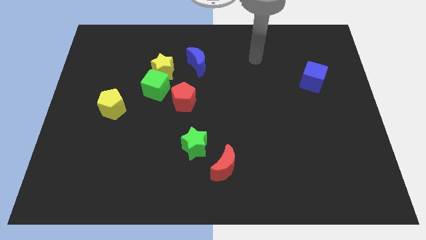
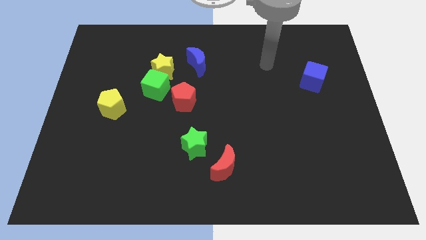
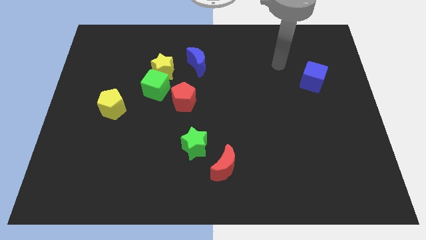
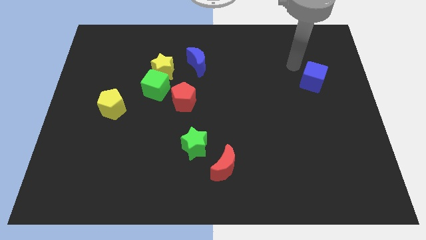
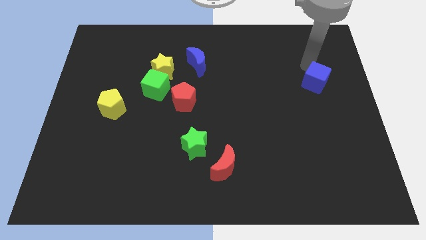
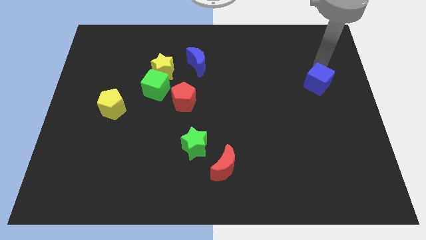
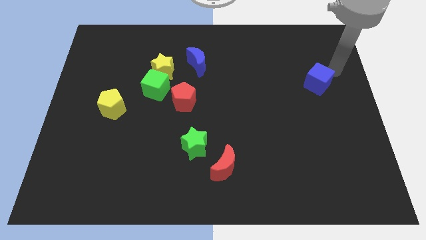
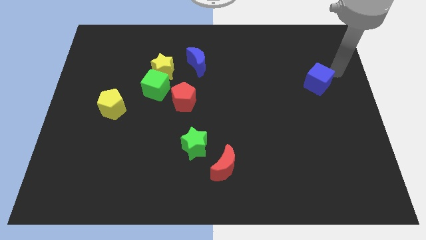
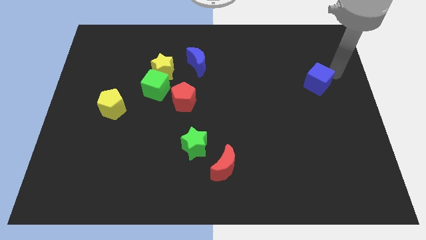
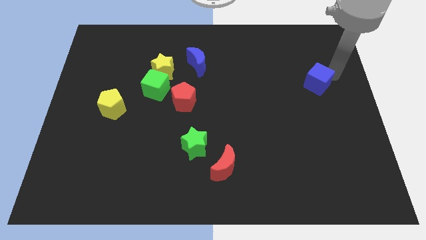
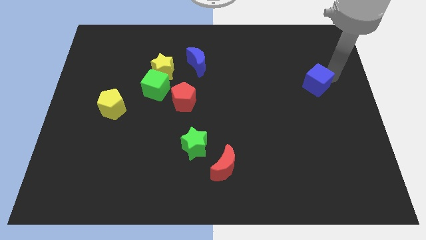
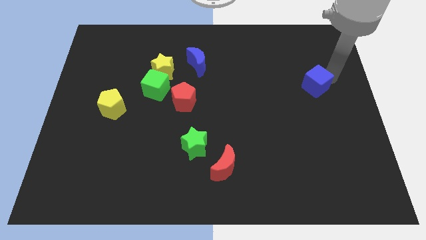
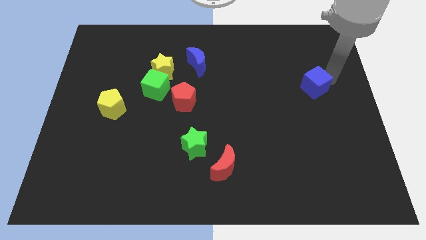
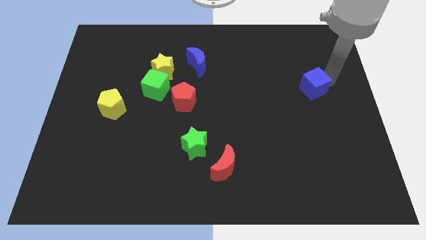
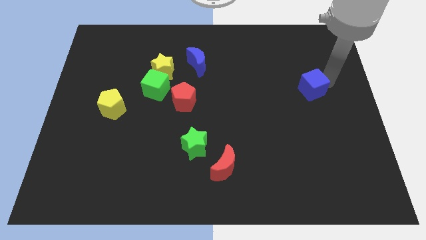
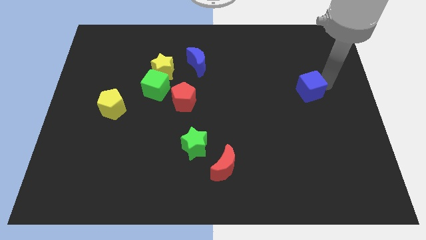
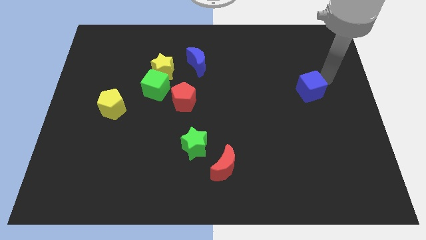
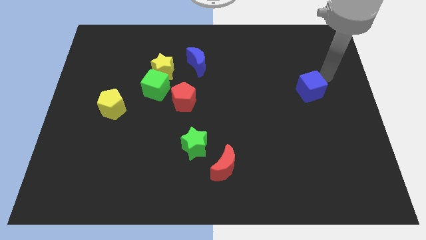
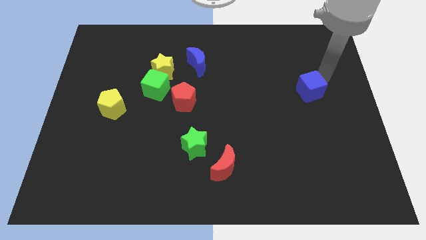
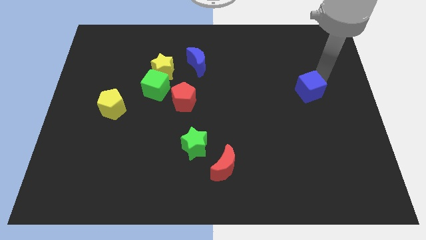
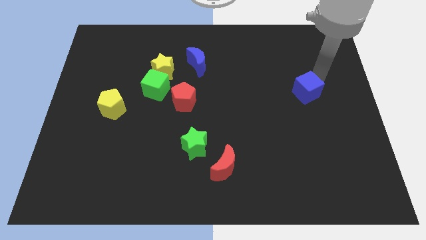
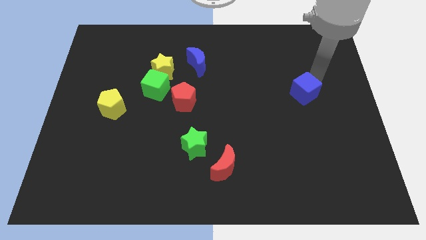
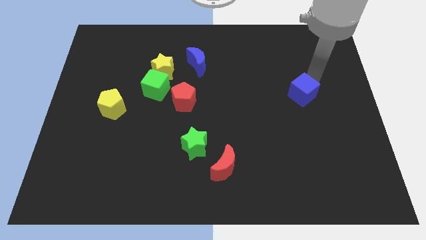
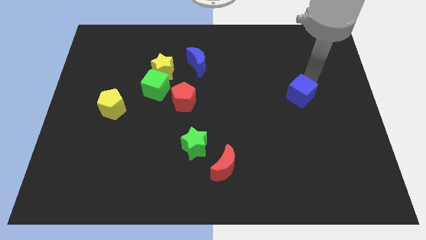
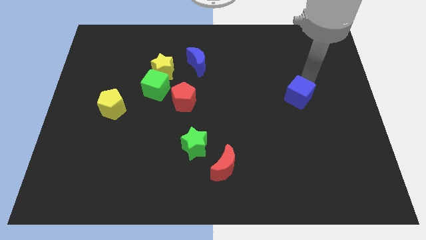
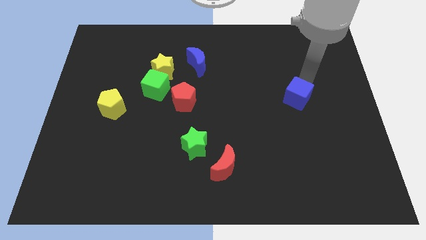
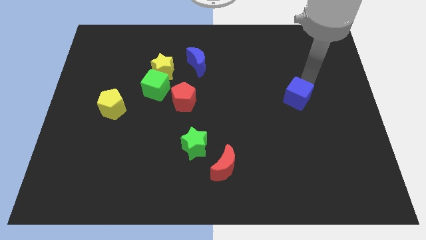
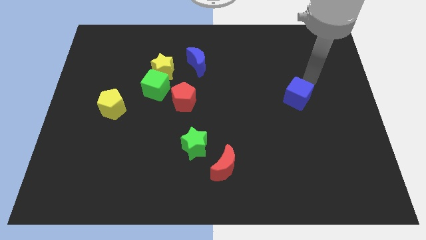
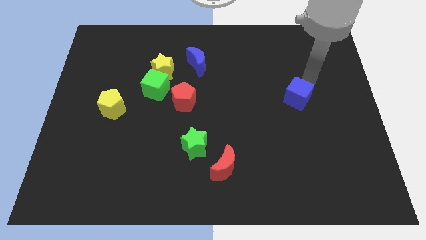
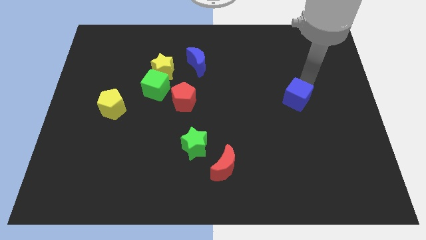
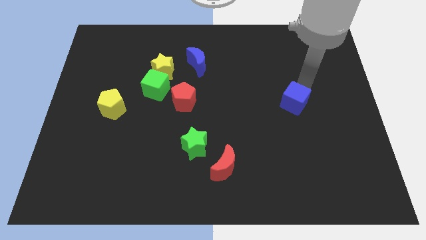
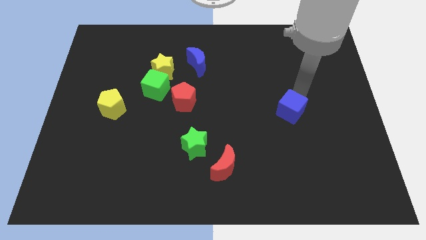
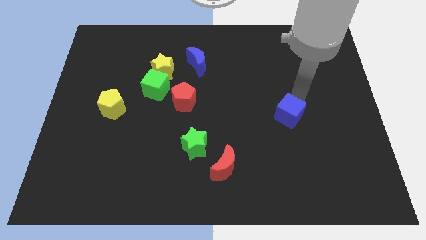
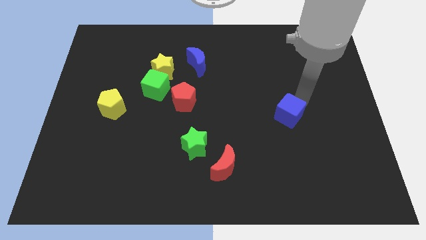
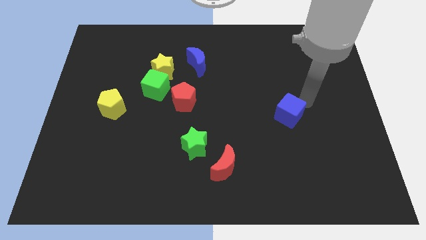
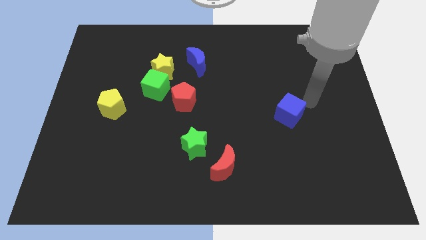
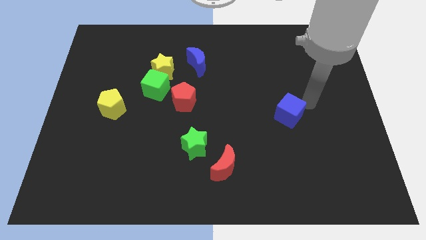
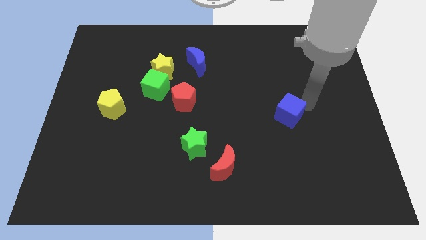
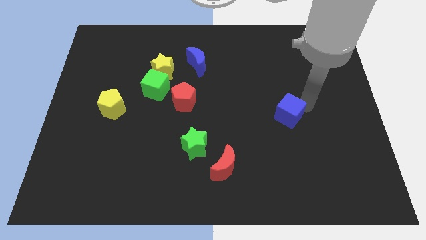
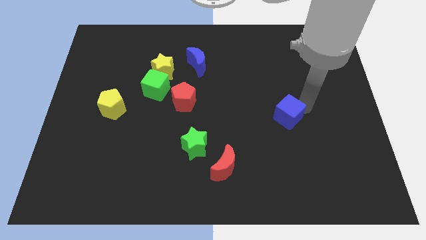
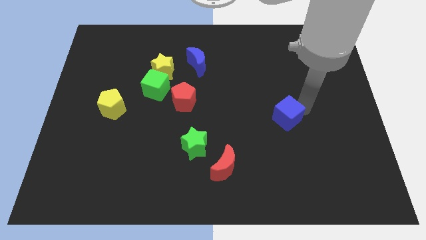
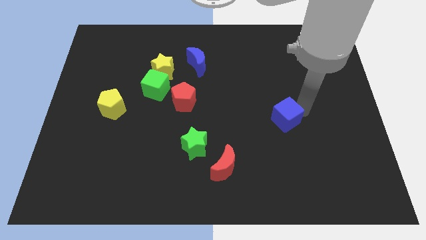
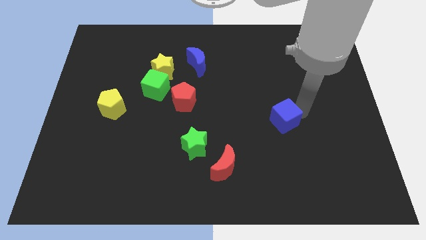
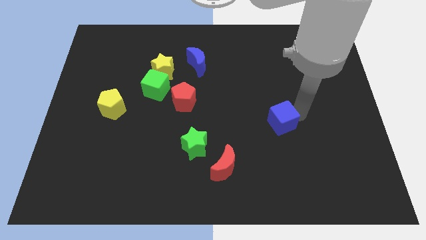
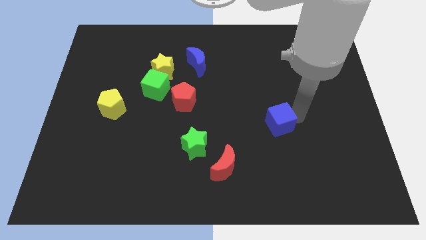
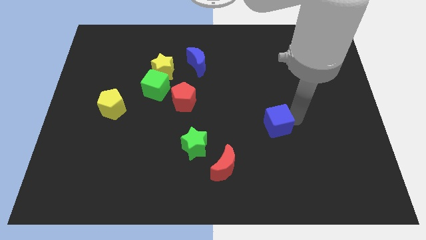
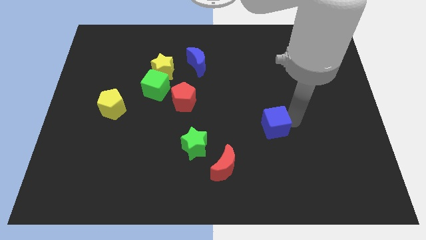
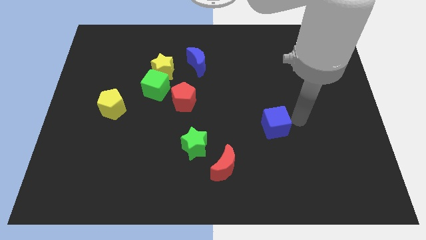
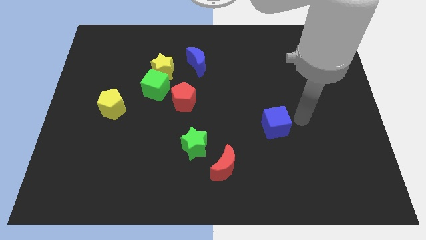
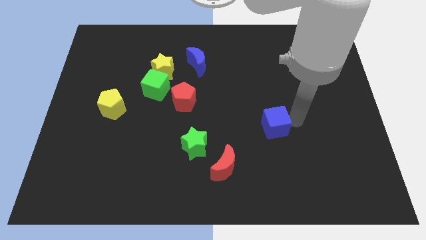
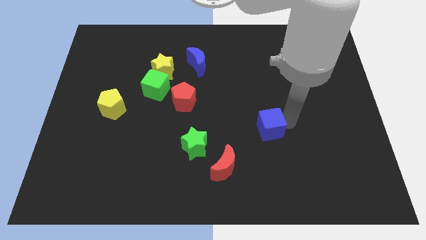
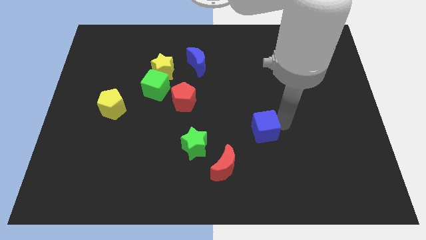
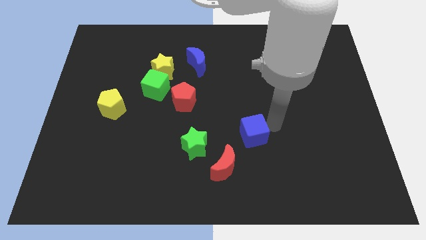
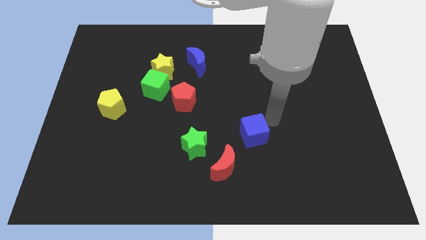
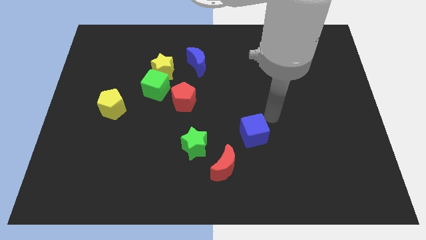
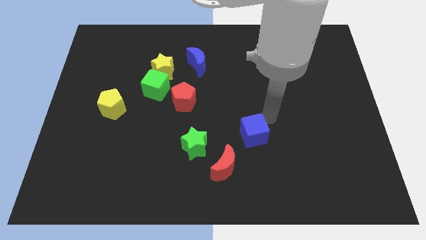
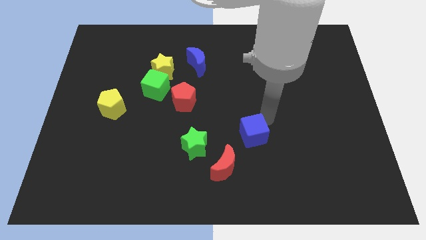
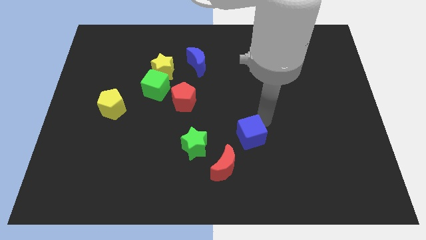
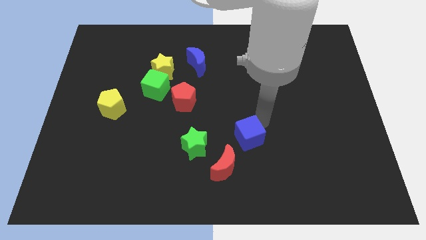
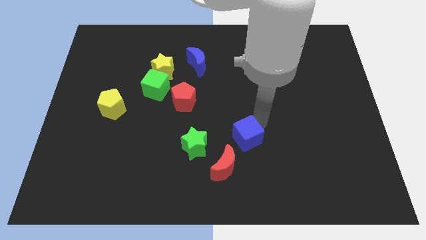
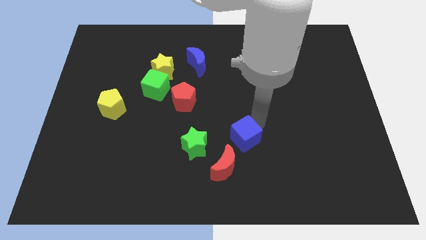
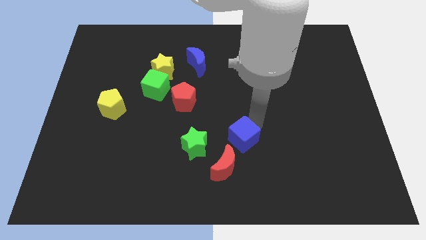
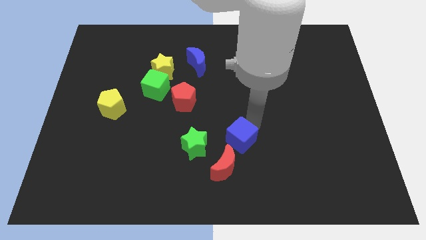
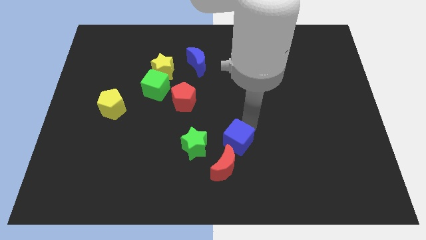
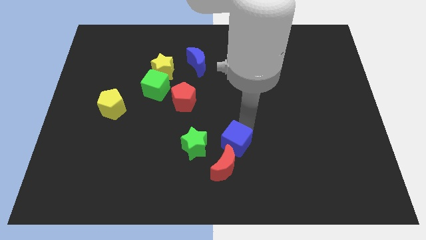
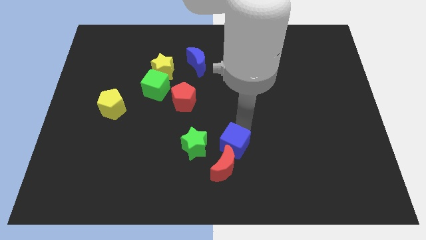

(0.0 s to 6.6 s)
move the blue cube to the red moon

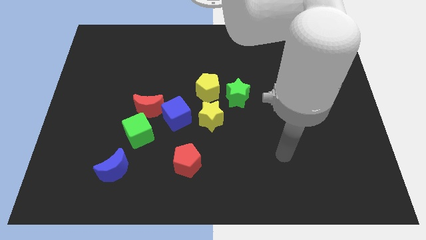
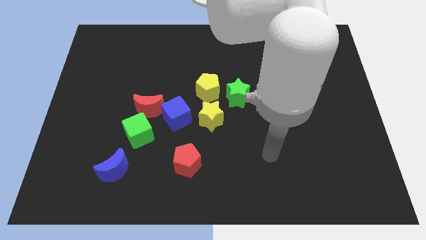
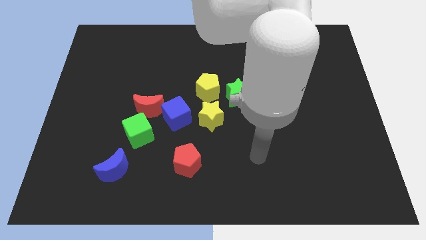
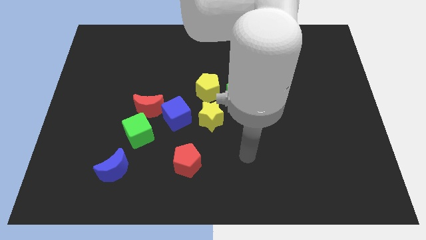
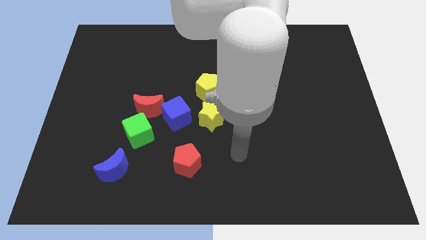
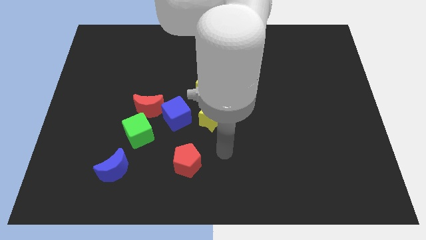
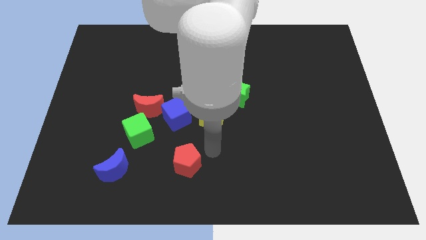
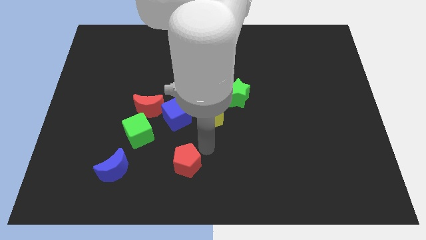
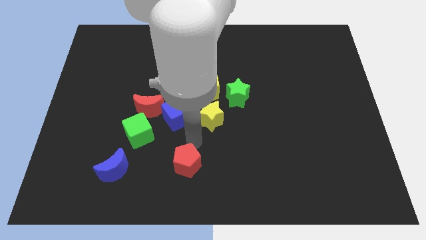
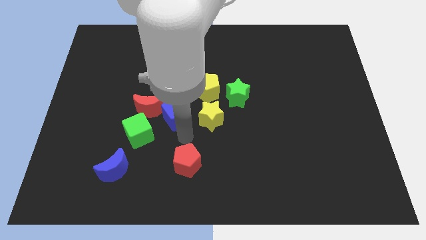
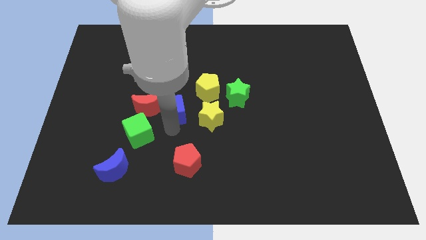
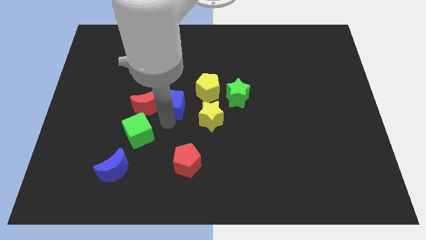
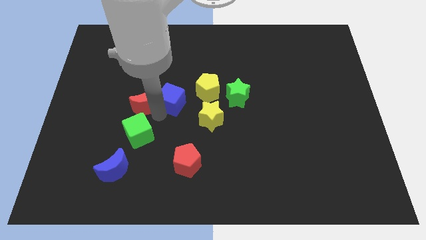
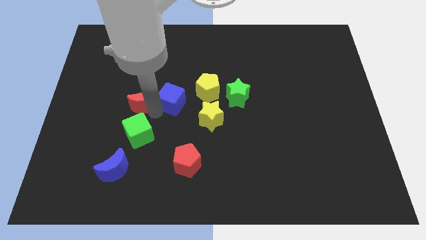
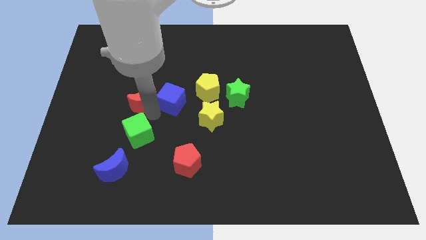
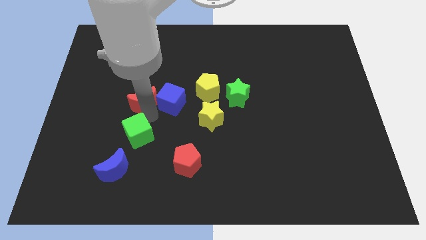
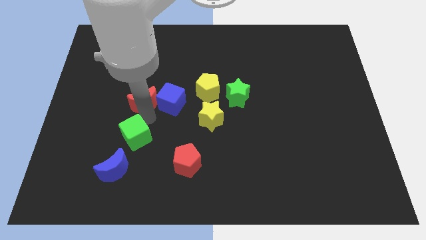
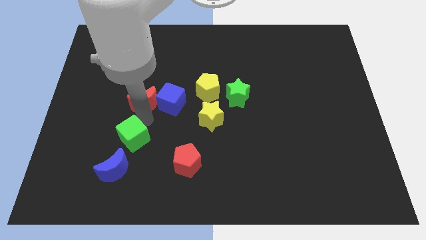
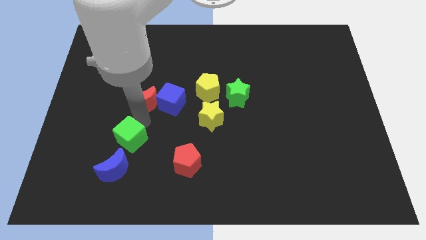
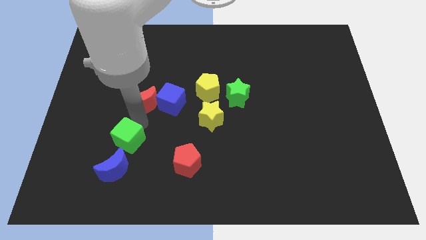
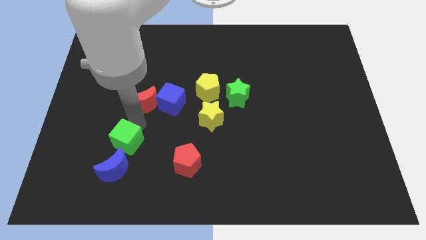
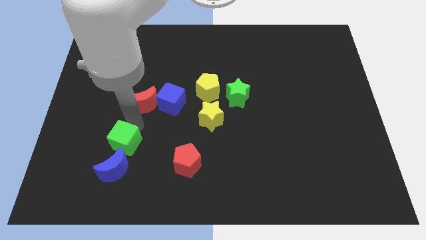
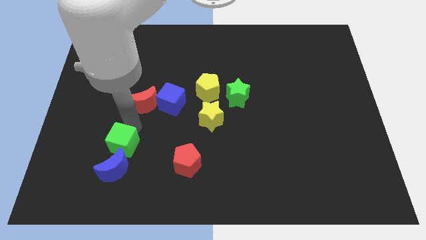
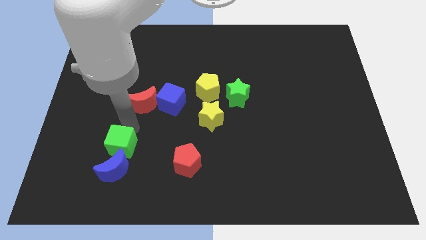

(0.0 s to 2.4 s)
put the green cube towards the blue moon
